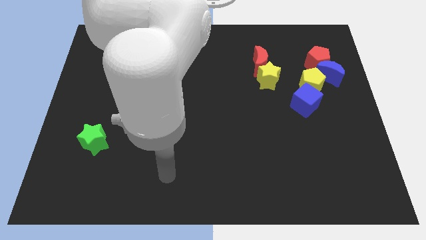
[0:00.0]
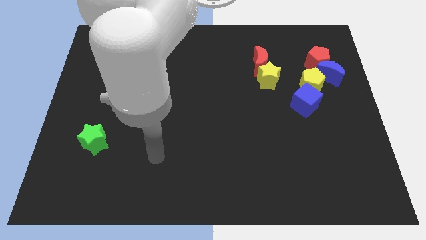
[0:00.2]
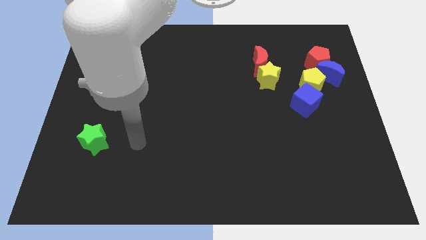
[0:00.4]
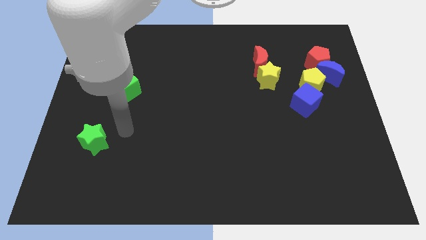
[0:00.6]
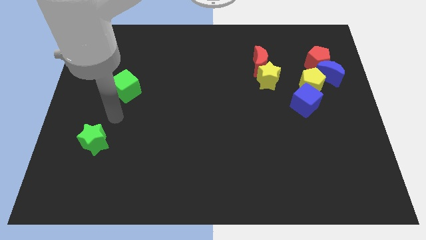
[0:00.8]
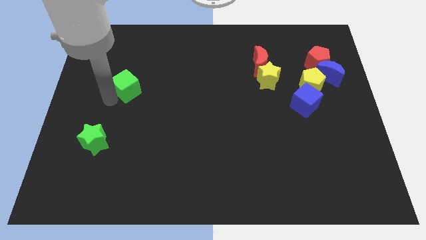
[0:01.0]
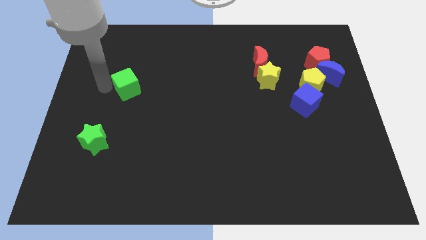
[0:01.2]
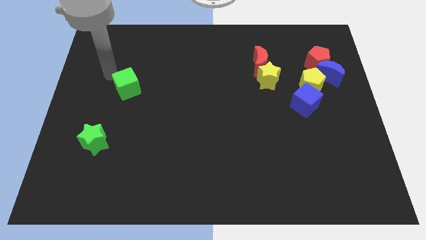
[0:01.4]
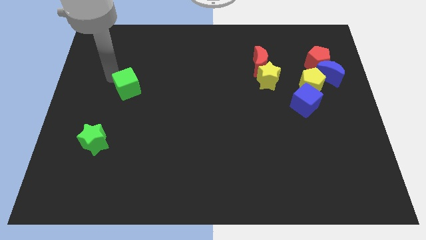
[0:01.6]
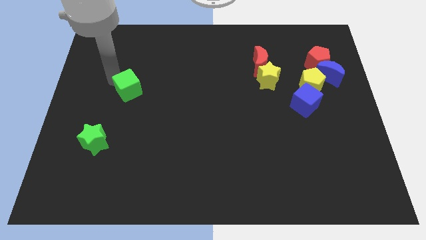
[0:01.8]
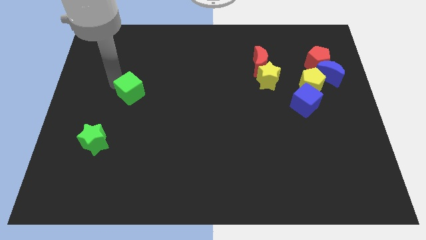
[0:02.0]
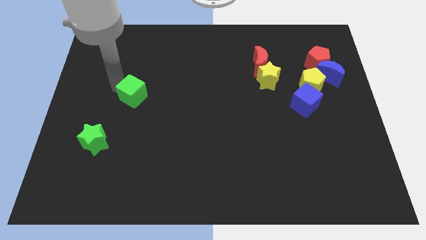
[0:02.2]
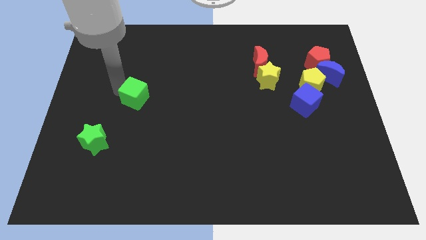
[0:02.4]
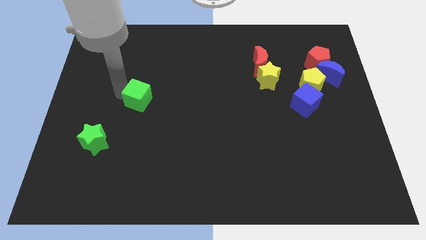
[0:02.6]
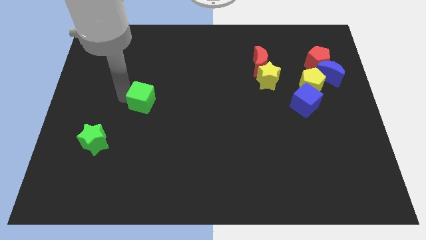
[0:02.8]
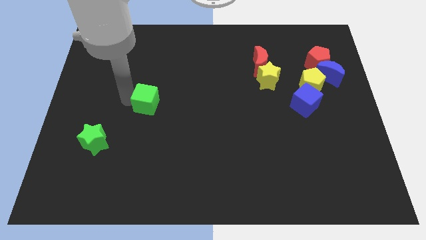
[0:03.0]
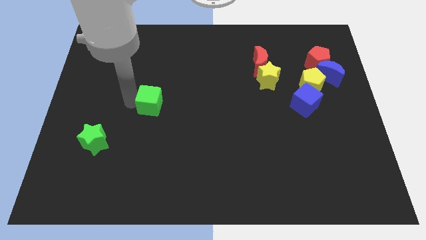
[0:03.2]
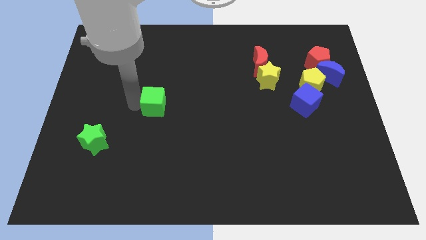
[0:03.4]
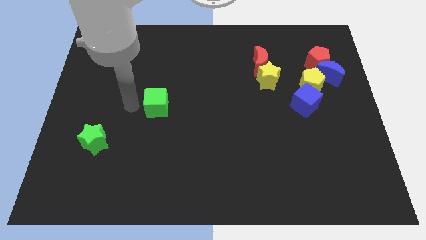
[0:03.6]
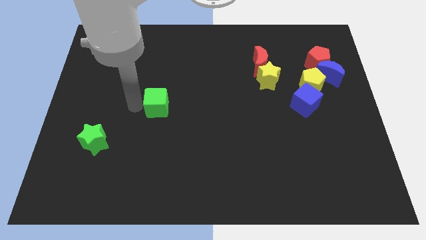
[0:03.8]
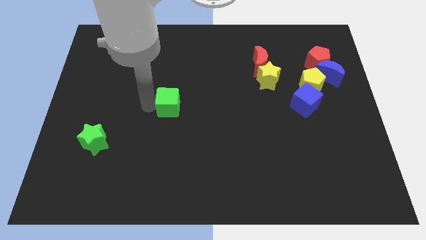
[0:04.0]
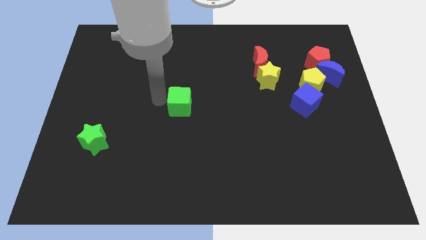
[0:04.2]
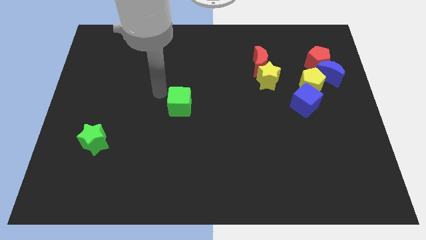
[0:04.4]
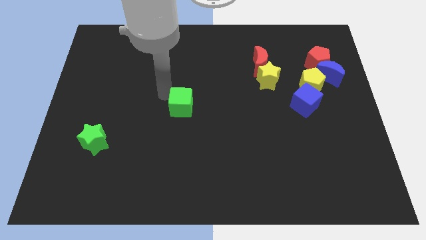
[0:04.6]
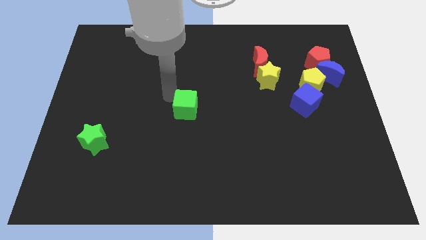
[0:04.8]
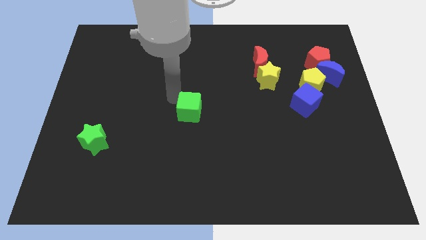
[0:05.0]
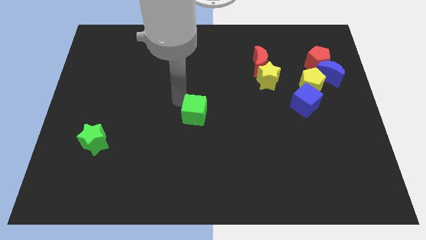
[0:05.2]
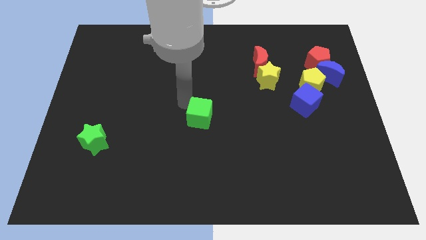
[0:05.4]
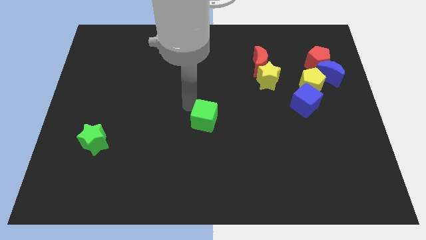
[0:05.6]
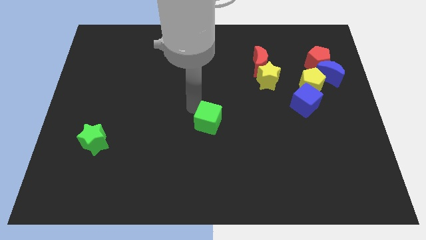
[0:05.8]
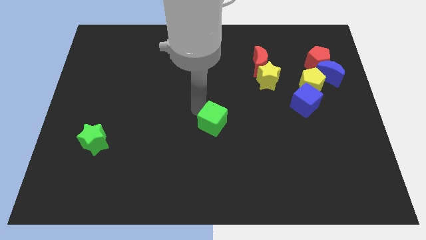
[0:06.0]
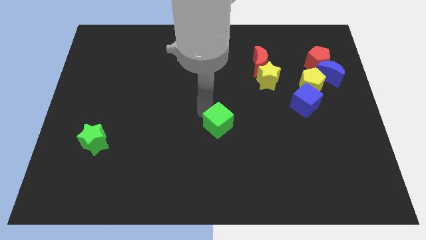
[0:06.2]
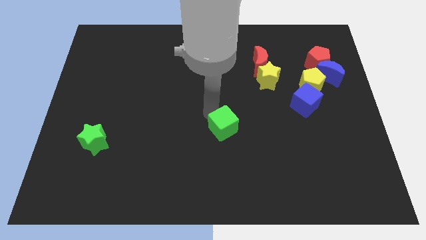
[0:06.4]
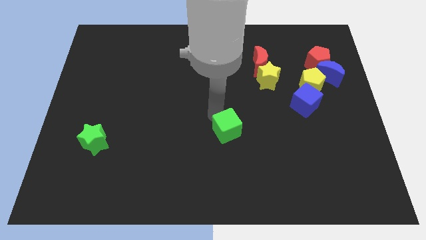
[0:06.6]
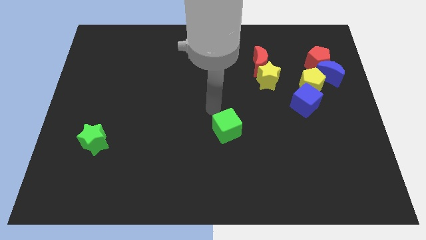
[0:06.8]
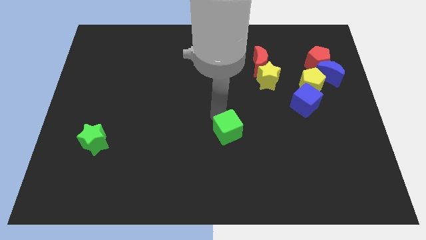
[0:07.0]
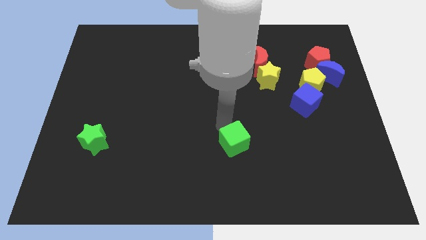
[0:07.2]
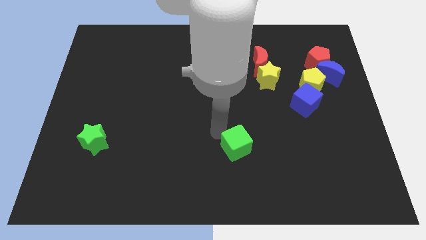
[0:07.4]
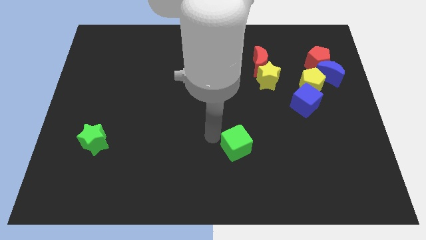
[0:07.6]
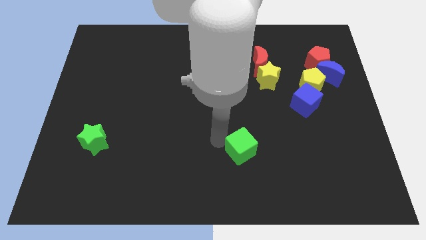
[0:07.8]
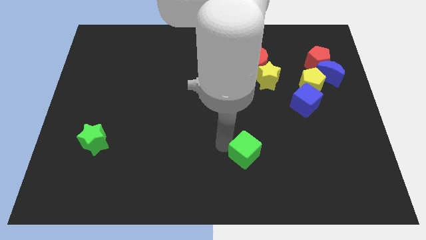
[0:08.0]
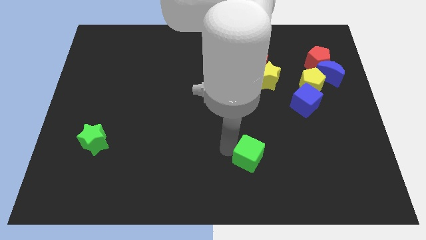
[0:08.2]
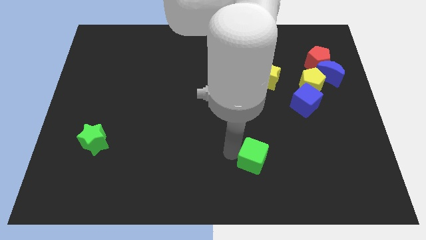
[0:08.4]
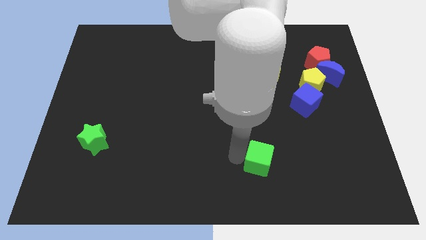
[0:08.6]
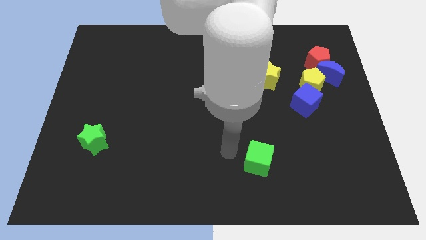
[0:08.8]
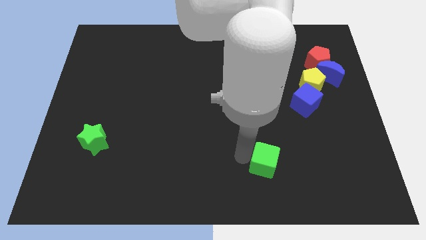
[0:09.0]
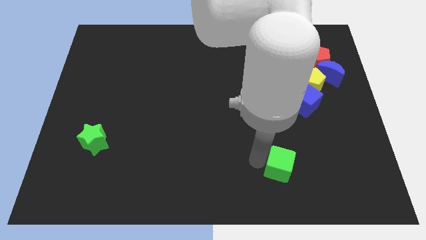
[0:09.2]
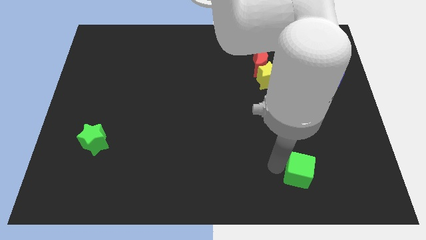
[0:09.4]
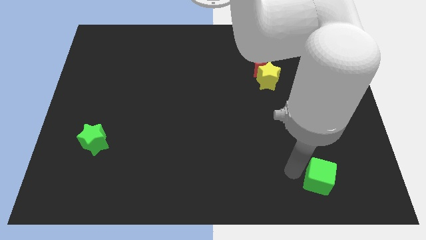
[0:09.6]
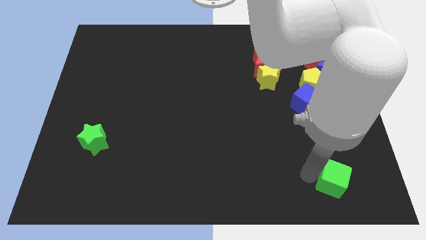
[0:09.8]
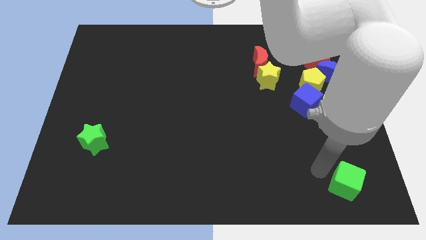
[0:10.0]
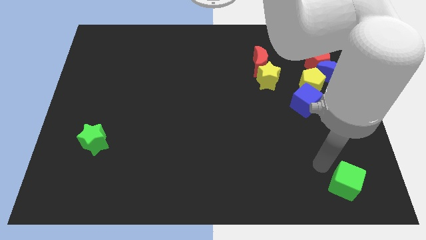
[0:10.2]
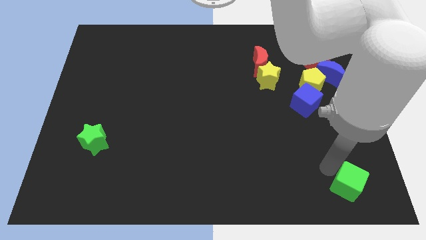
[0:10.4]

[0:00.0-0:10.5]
push the green cube to the bottom right corner

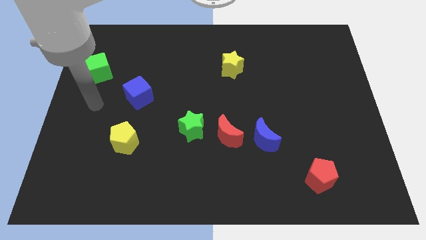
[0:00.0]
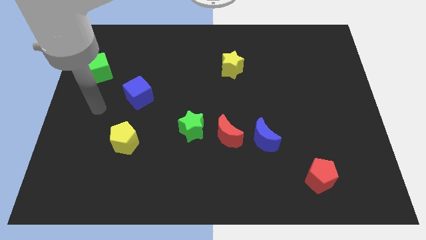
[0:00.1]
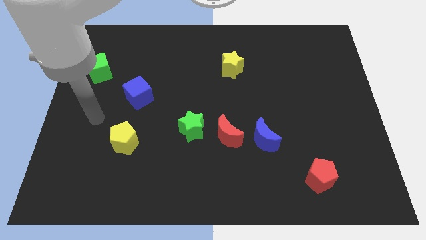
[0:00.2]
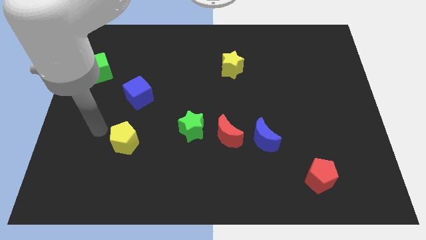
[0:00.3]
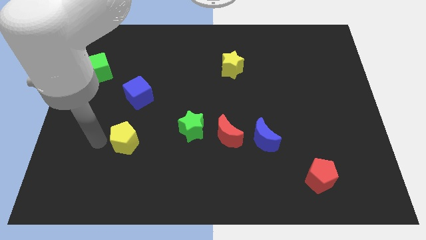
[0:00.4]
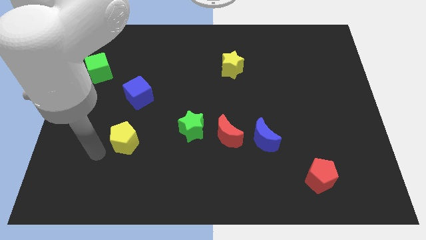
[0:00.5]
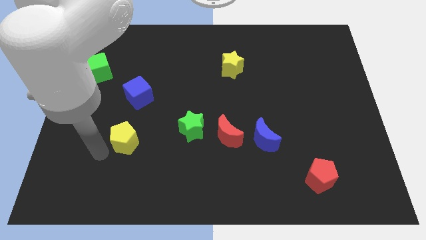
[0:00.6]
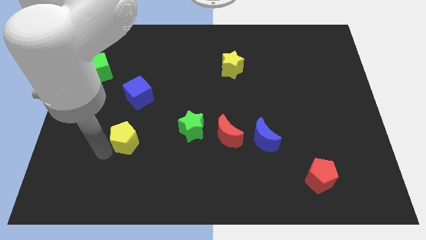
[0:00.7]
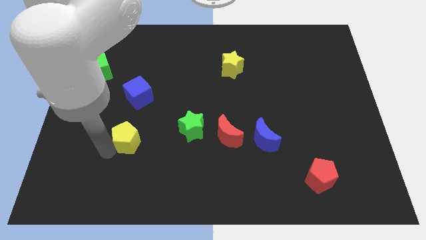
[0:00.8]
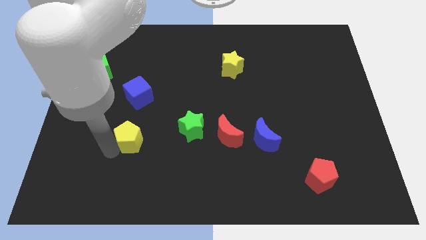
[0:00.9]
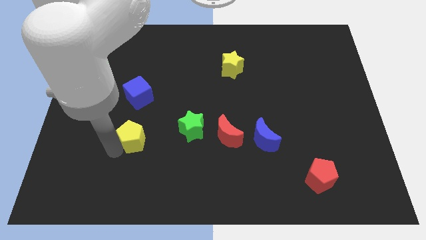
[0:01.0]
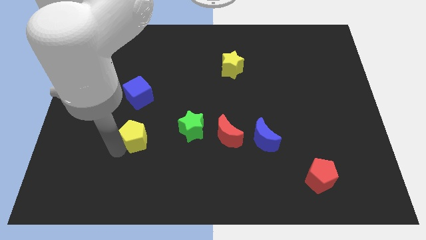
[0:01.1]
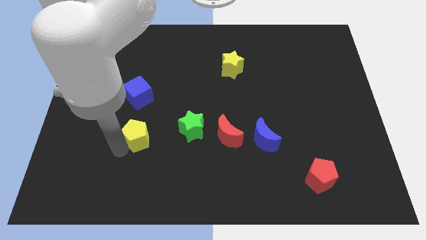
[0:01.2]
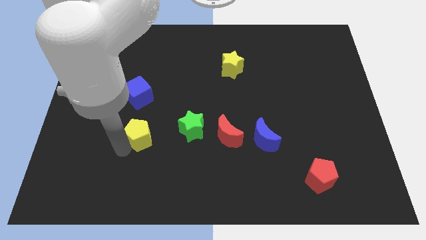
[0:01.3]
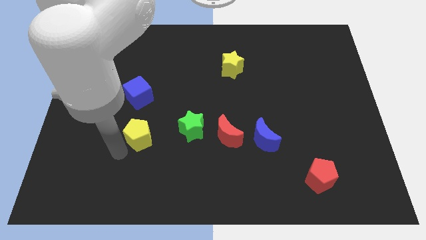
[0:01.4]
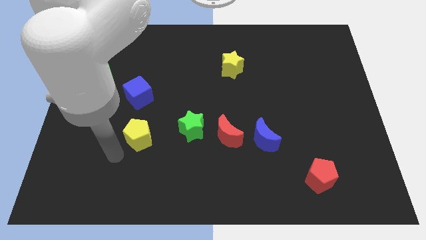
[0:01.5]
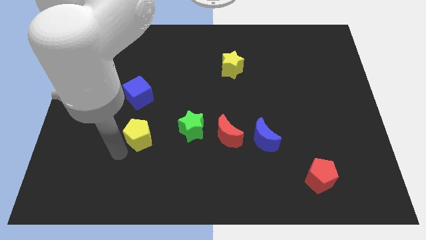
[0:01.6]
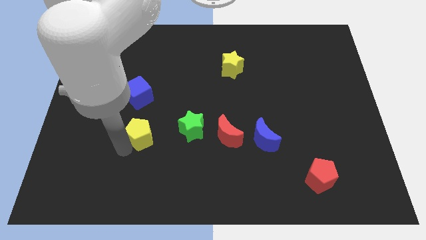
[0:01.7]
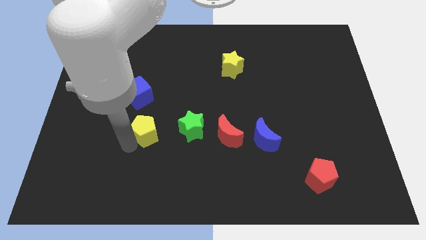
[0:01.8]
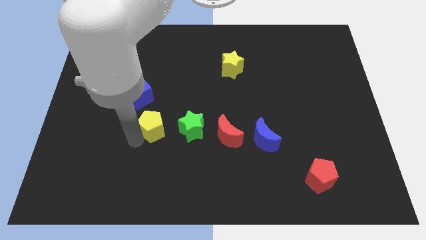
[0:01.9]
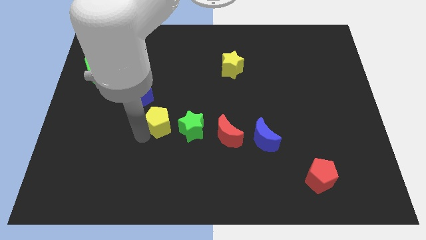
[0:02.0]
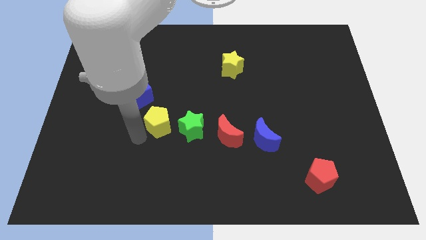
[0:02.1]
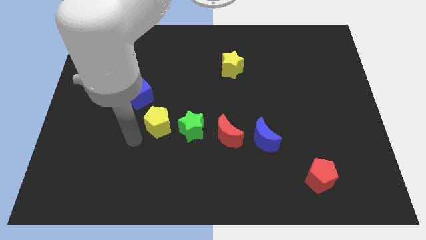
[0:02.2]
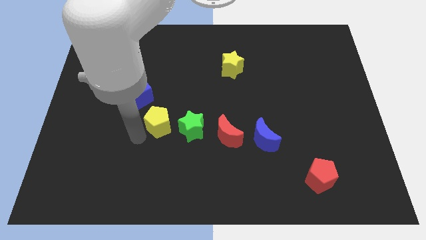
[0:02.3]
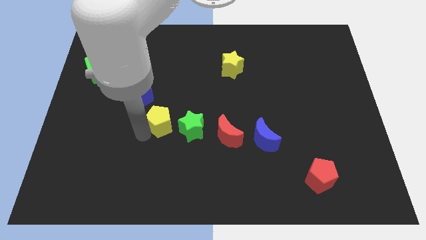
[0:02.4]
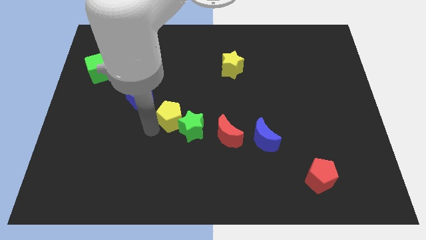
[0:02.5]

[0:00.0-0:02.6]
put the yellow pentagon to the middle

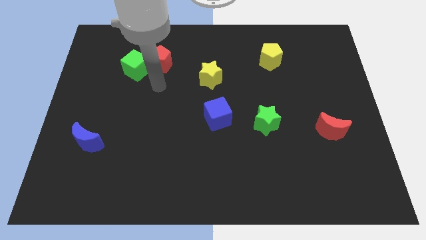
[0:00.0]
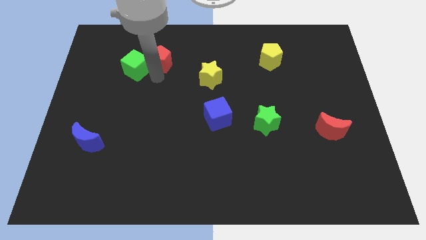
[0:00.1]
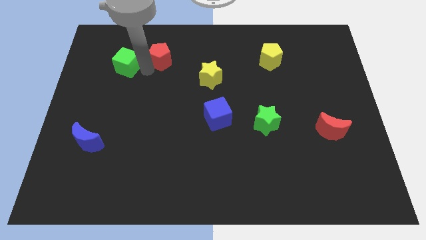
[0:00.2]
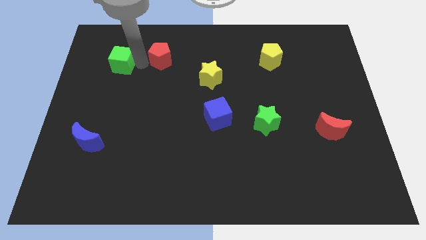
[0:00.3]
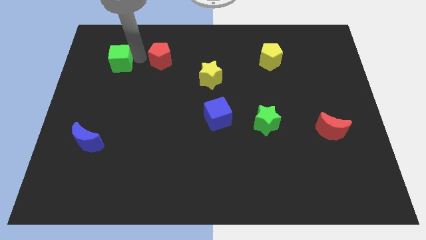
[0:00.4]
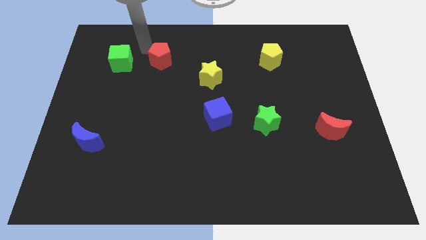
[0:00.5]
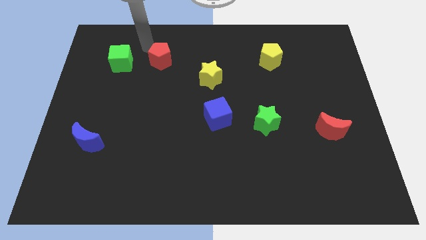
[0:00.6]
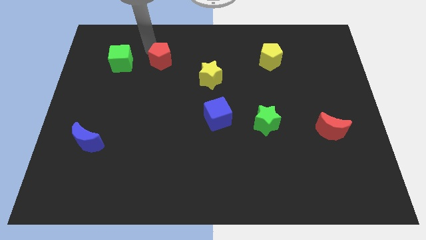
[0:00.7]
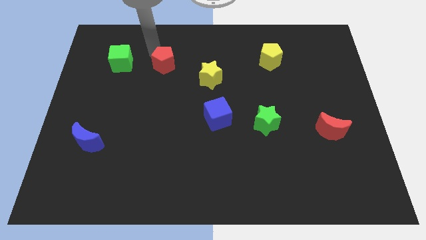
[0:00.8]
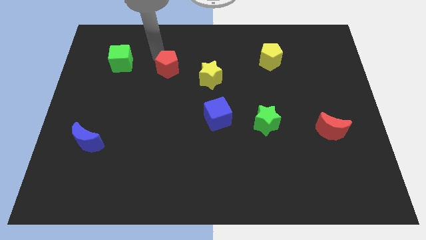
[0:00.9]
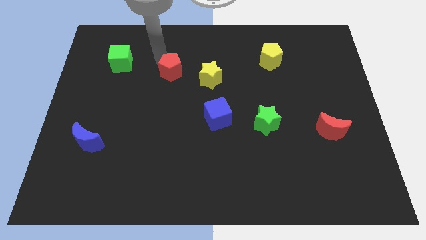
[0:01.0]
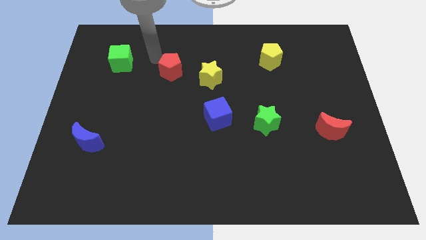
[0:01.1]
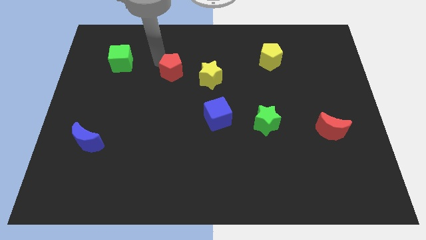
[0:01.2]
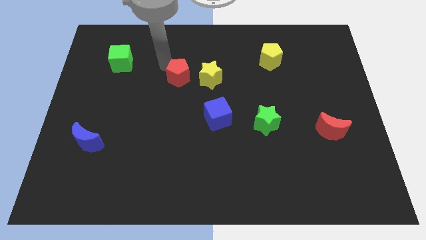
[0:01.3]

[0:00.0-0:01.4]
put the red pentagon to the center of the board
